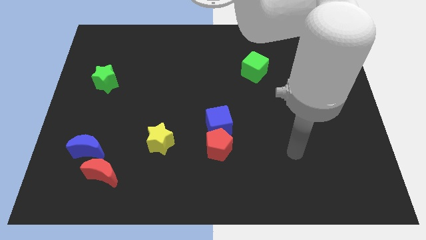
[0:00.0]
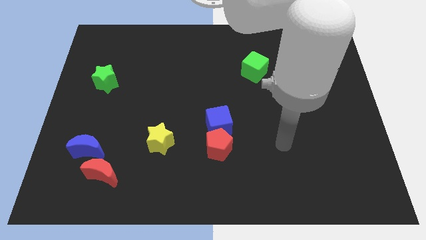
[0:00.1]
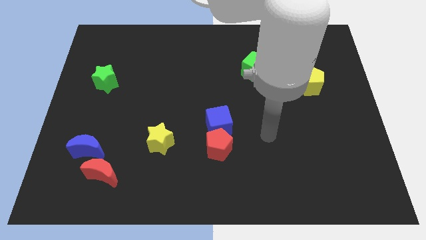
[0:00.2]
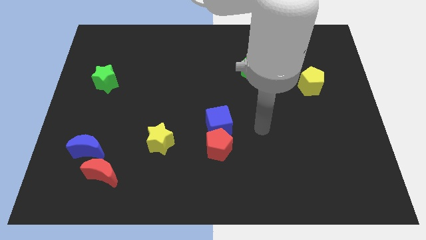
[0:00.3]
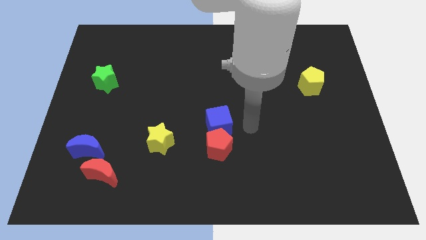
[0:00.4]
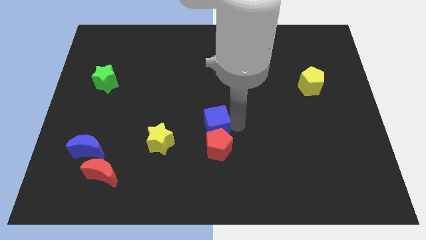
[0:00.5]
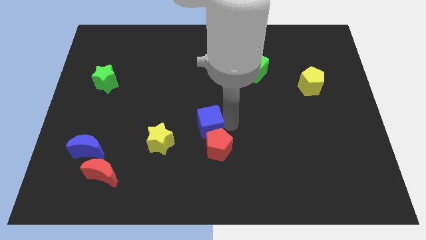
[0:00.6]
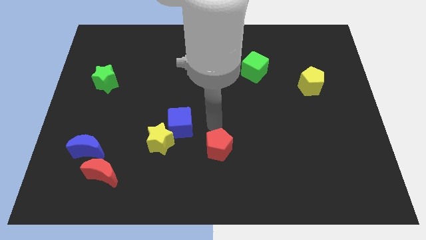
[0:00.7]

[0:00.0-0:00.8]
pull the red pentagon apart from the blue cube

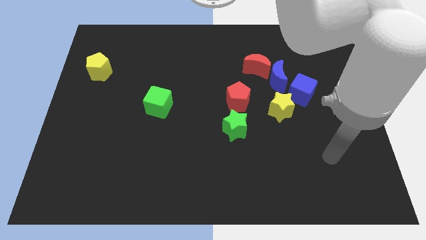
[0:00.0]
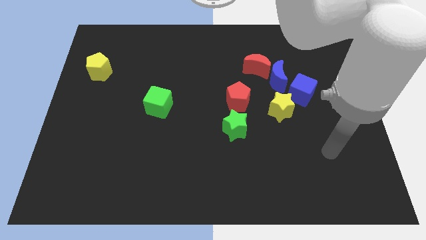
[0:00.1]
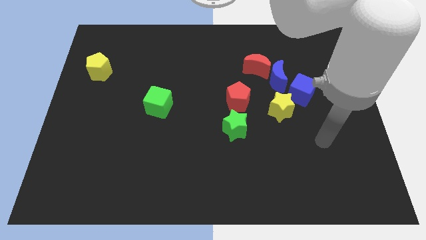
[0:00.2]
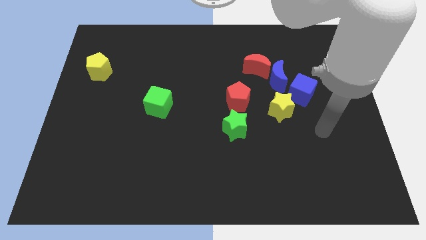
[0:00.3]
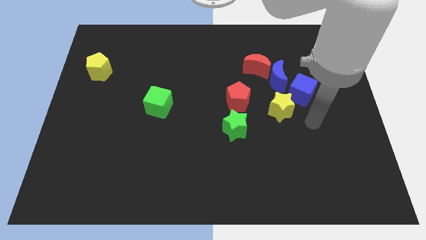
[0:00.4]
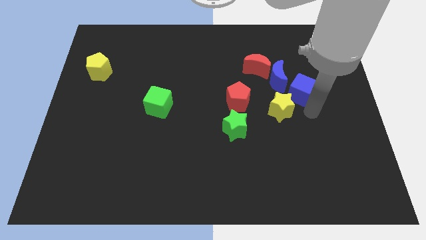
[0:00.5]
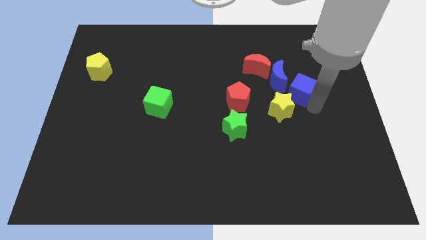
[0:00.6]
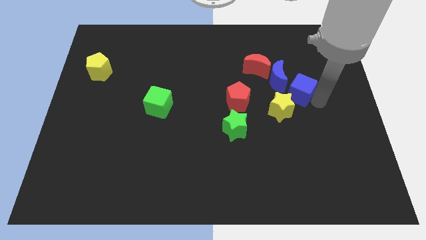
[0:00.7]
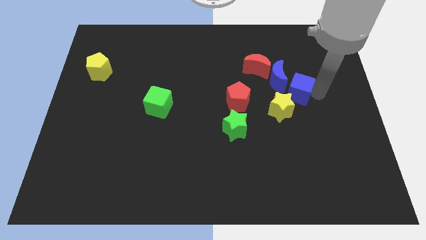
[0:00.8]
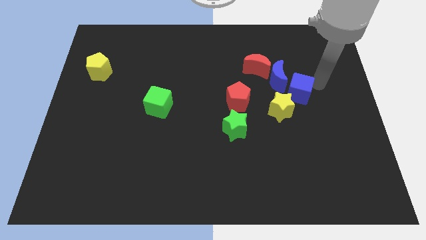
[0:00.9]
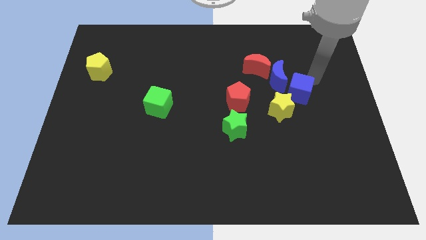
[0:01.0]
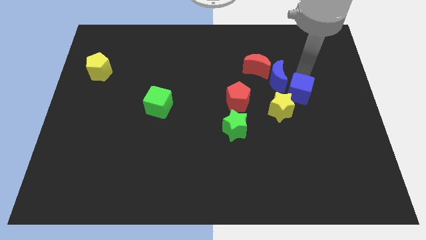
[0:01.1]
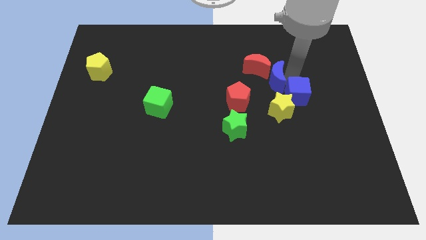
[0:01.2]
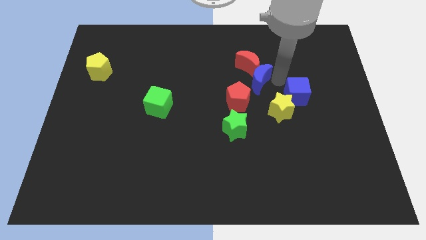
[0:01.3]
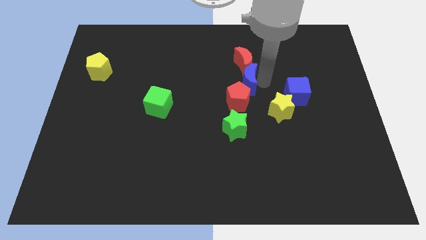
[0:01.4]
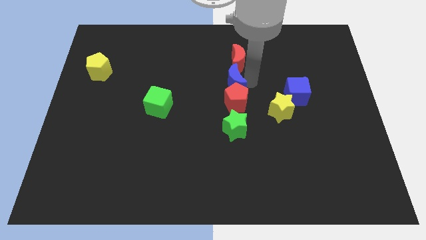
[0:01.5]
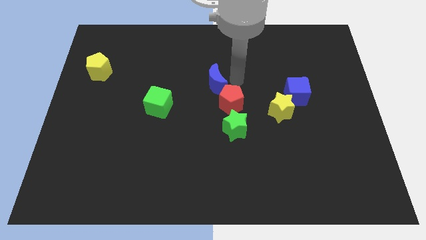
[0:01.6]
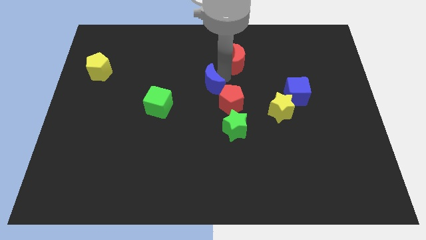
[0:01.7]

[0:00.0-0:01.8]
pull the red moon apart from the blue moon

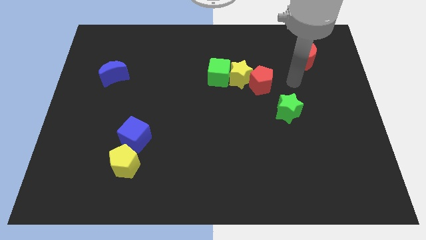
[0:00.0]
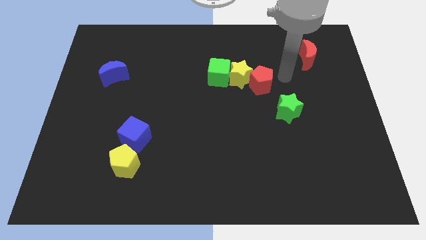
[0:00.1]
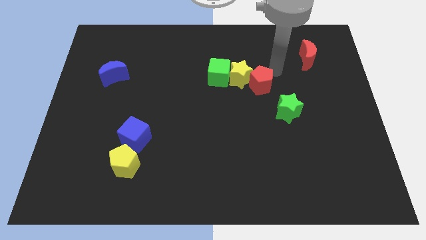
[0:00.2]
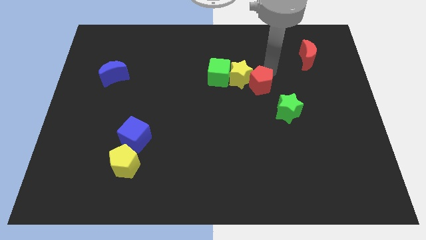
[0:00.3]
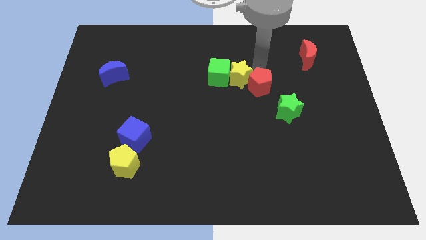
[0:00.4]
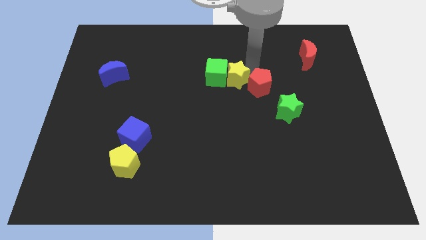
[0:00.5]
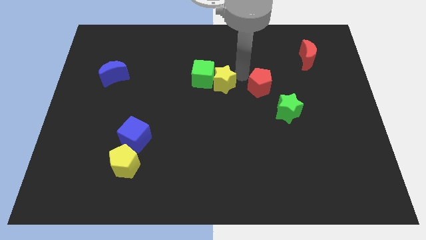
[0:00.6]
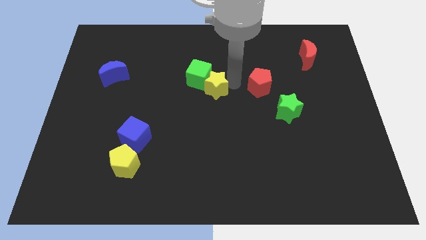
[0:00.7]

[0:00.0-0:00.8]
separate the red pentagon from the yellow star

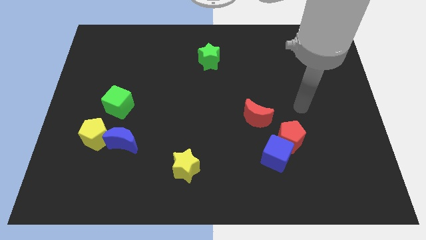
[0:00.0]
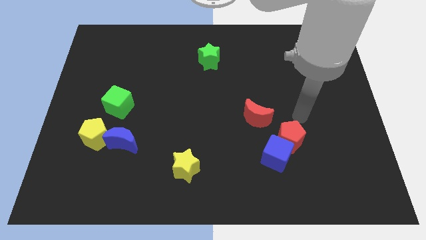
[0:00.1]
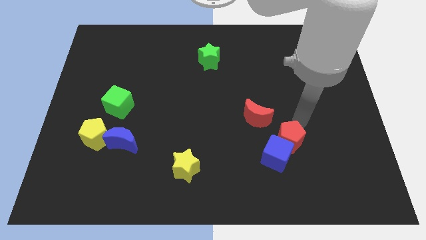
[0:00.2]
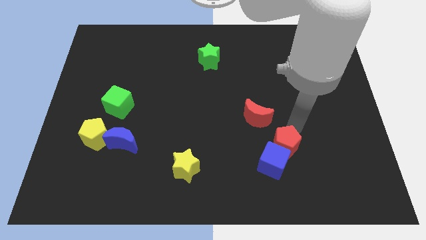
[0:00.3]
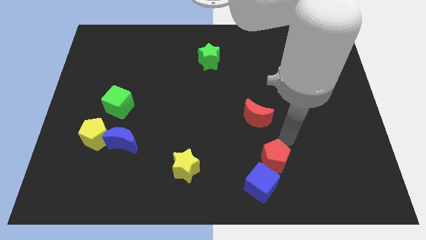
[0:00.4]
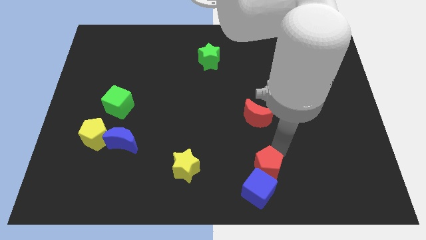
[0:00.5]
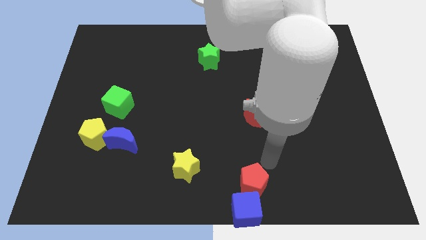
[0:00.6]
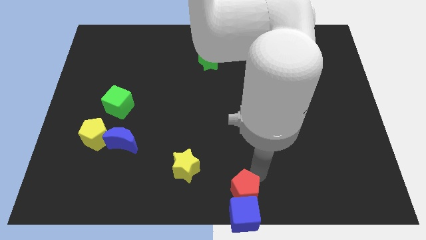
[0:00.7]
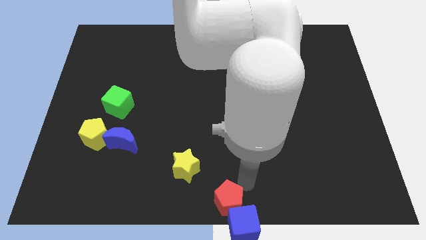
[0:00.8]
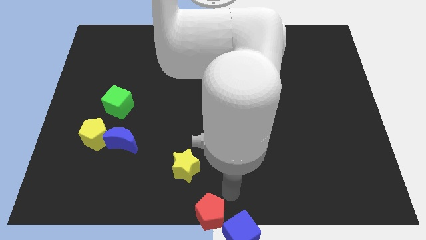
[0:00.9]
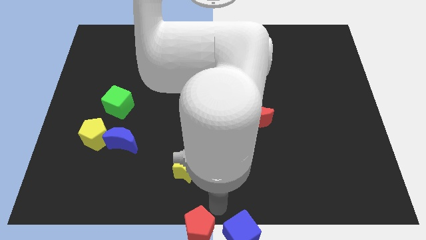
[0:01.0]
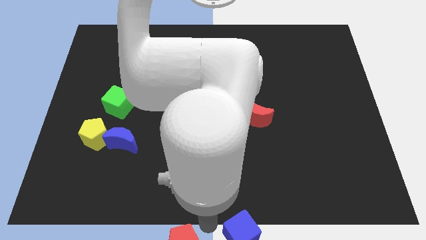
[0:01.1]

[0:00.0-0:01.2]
separate the blue cube from the red pentagon

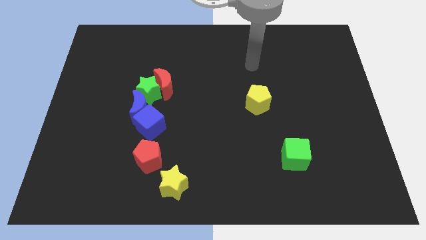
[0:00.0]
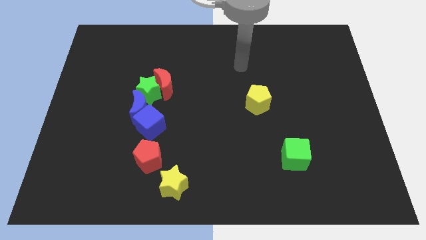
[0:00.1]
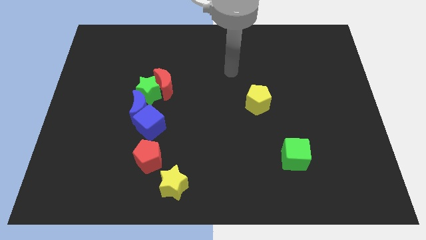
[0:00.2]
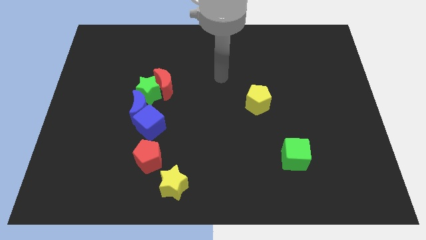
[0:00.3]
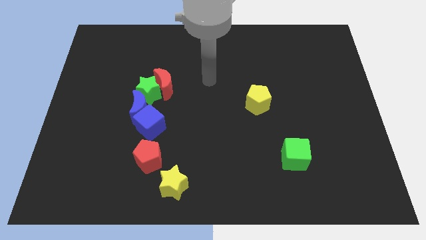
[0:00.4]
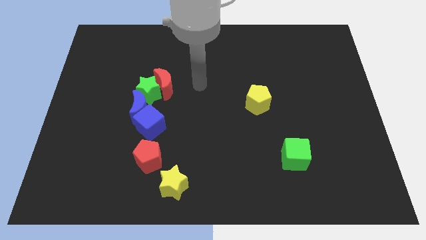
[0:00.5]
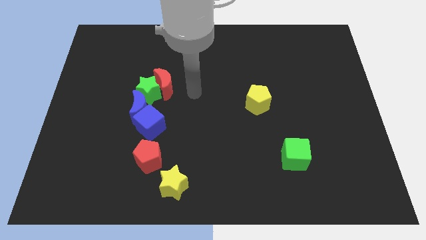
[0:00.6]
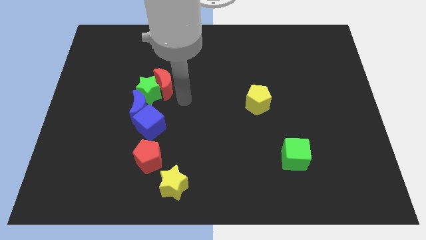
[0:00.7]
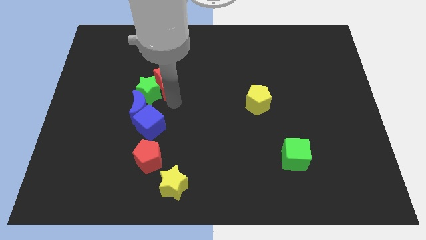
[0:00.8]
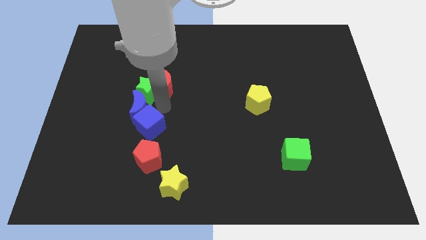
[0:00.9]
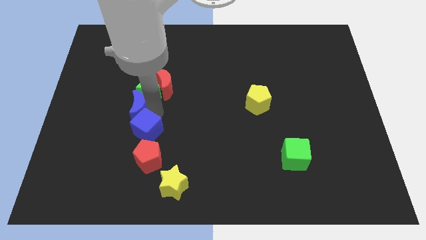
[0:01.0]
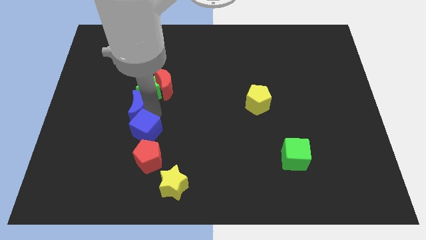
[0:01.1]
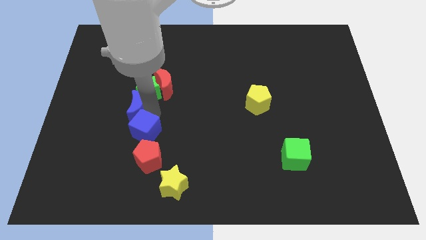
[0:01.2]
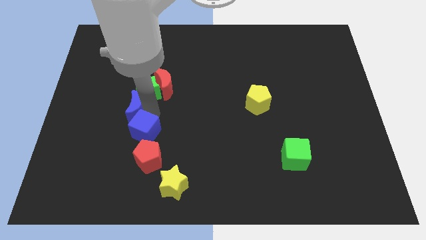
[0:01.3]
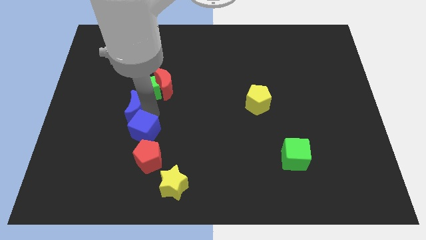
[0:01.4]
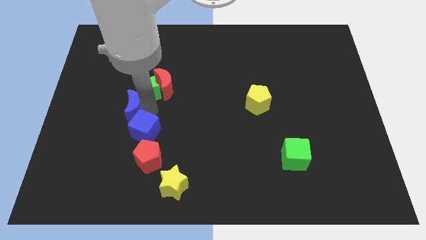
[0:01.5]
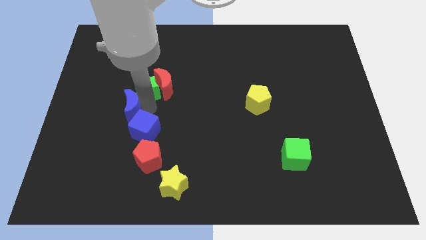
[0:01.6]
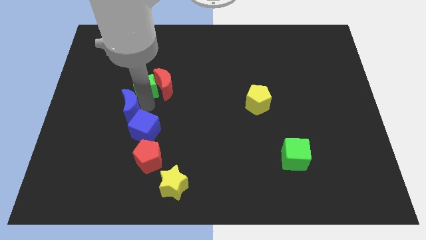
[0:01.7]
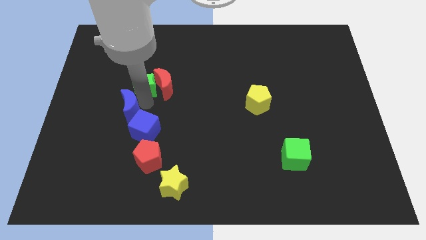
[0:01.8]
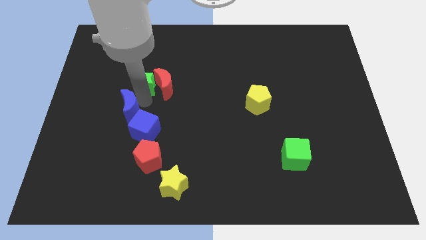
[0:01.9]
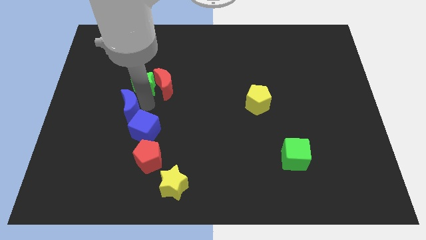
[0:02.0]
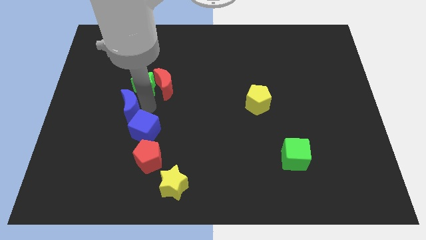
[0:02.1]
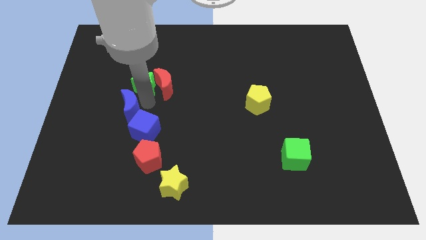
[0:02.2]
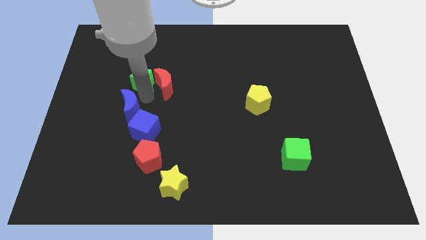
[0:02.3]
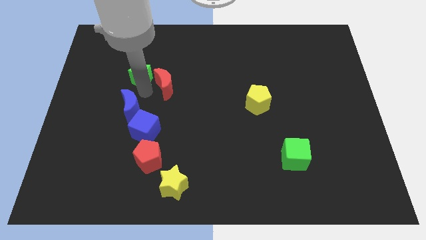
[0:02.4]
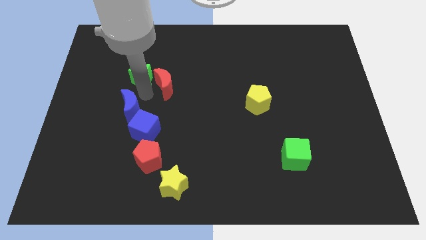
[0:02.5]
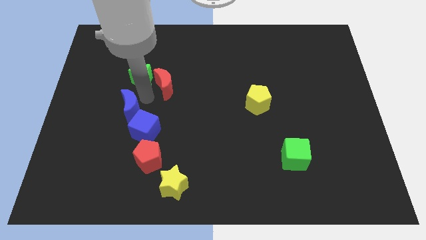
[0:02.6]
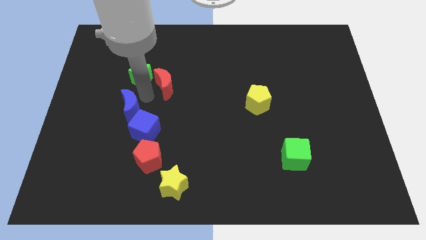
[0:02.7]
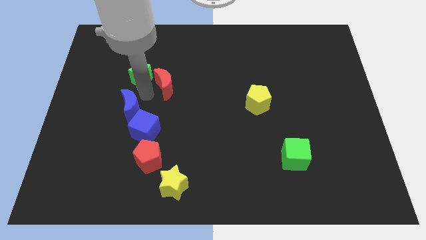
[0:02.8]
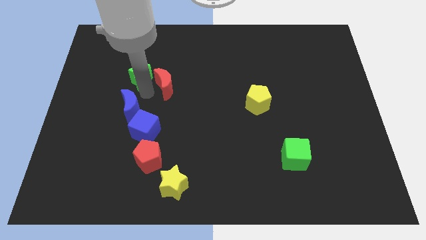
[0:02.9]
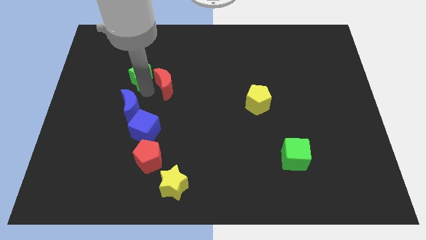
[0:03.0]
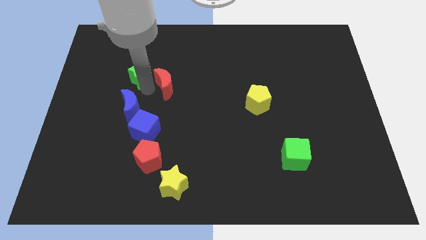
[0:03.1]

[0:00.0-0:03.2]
pull the green star apart from the red moon, blue moon, and blue cube

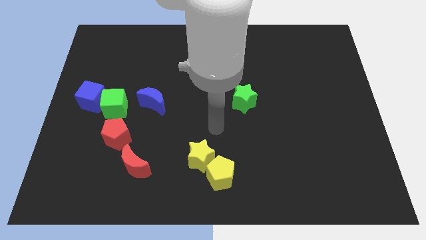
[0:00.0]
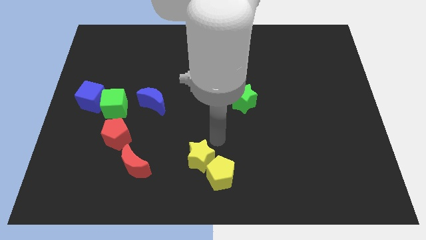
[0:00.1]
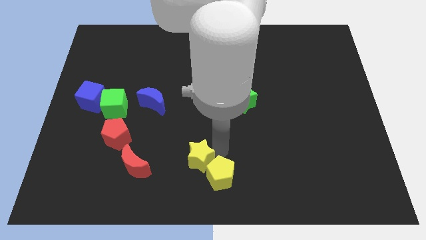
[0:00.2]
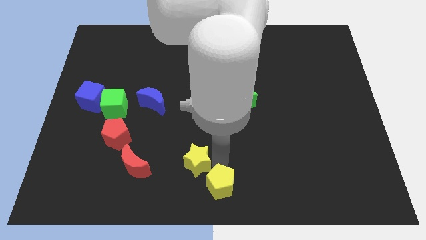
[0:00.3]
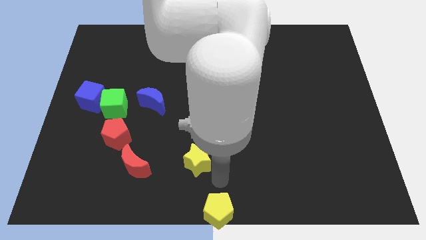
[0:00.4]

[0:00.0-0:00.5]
separate the yellow star from the yellow pentagon

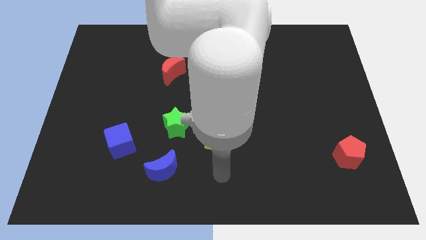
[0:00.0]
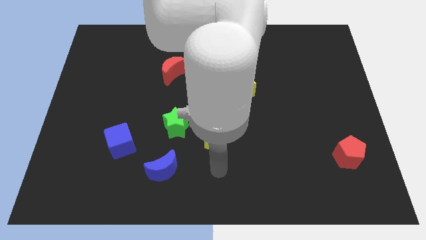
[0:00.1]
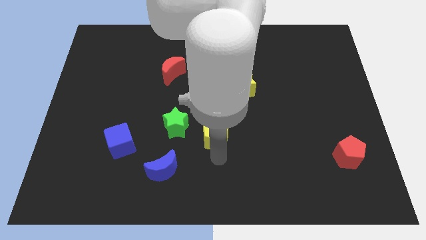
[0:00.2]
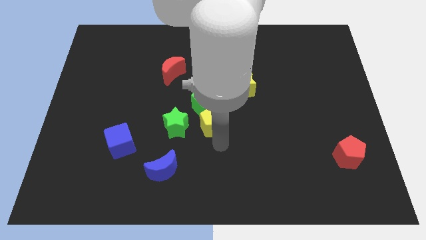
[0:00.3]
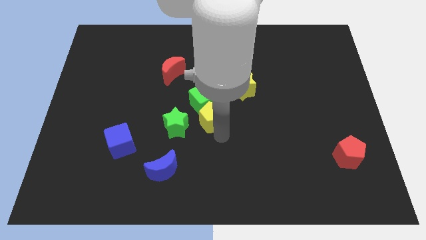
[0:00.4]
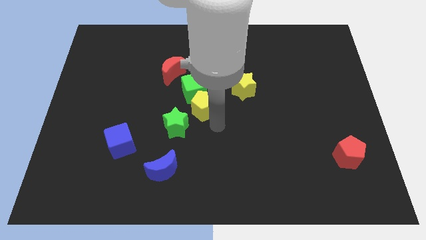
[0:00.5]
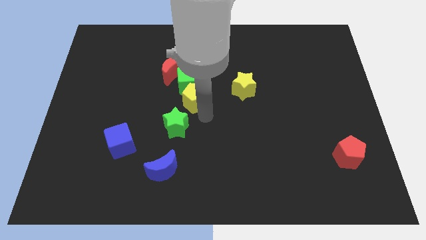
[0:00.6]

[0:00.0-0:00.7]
pull the green star apart from the green cube and yellow pentagon

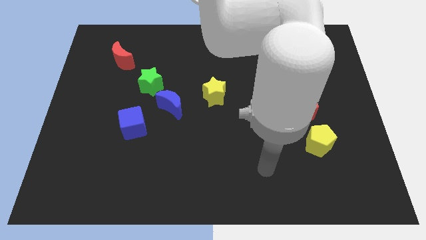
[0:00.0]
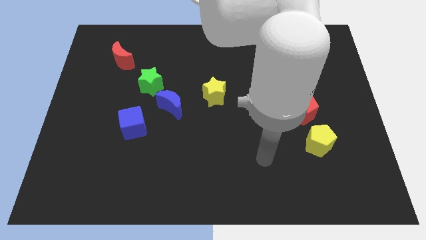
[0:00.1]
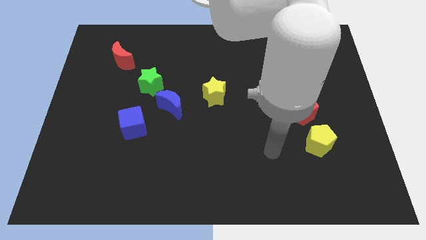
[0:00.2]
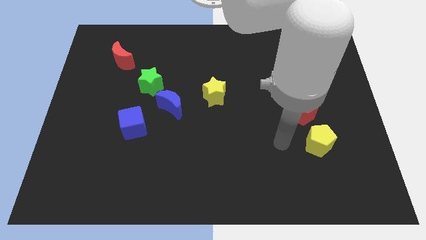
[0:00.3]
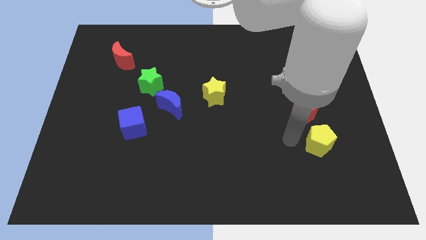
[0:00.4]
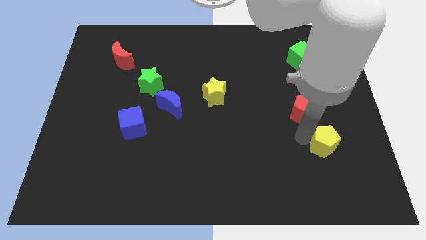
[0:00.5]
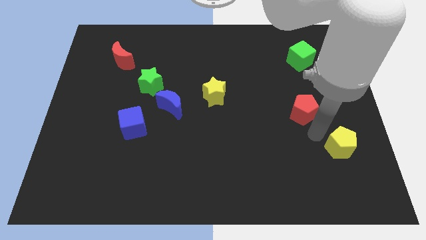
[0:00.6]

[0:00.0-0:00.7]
pull the red pentagon apart from the yellow pentagon
